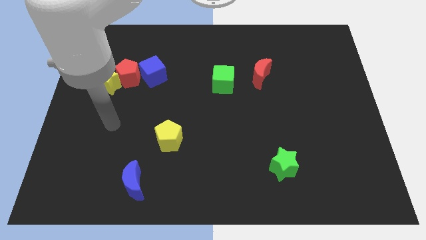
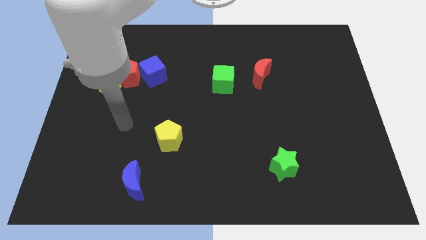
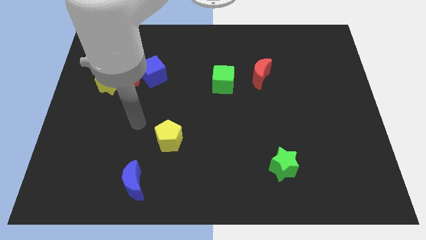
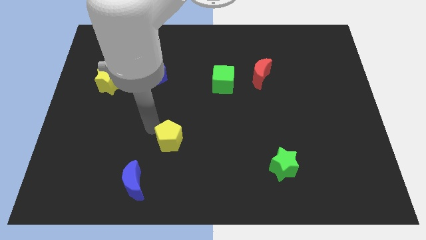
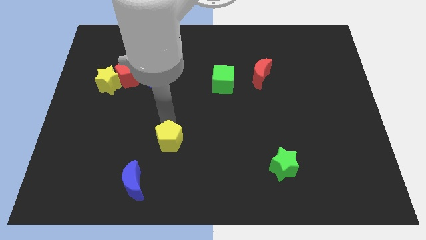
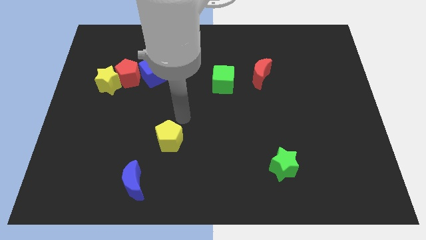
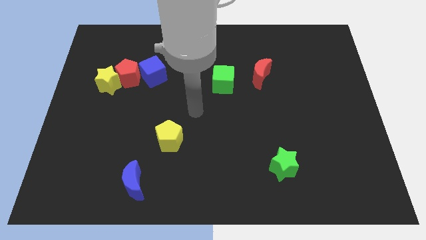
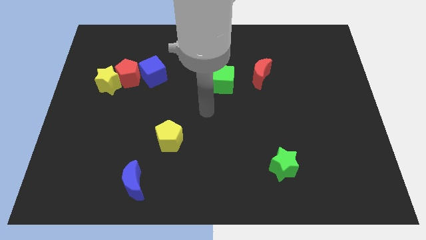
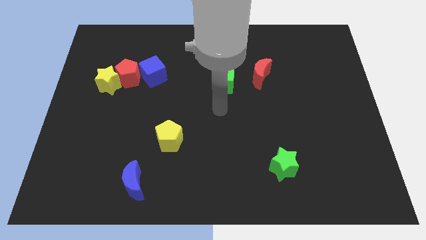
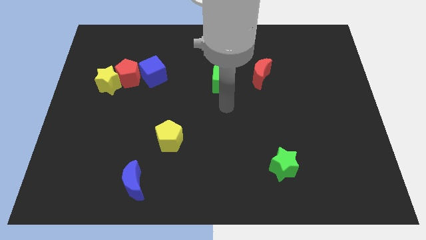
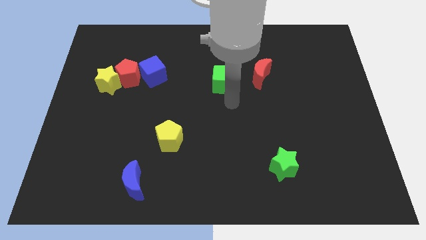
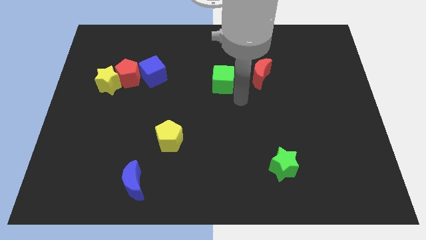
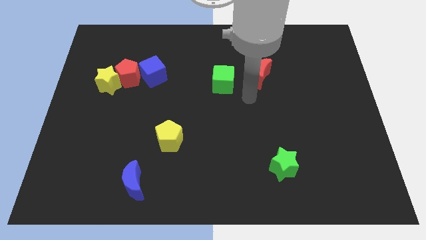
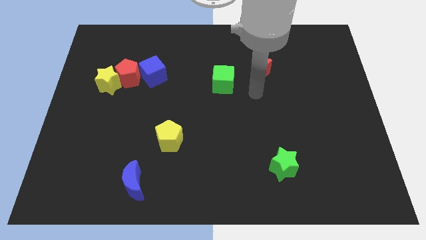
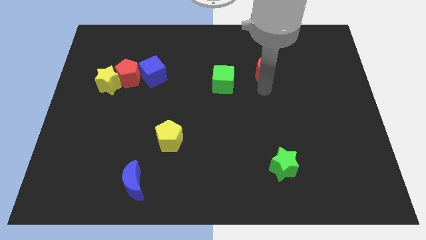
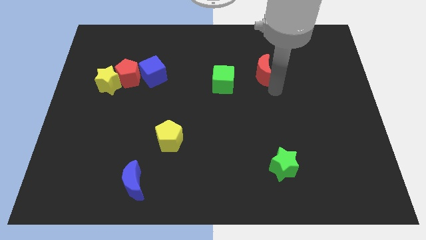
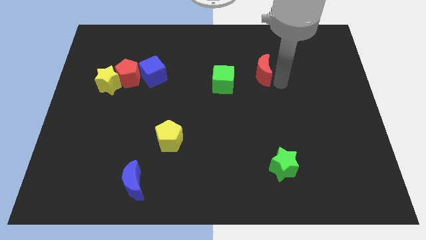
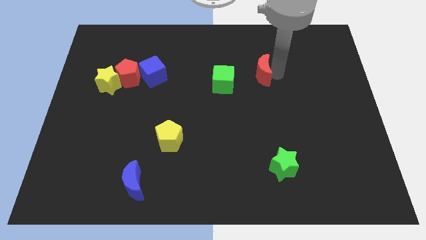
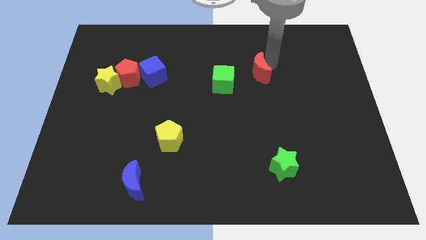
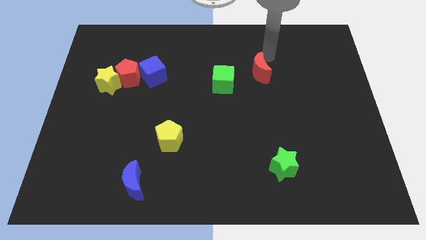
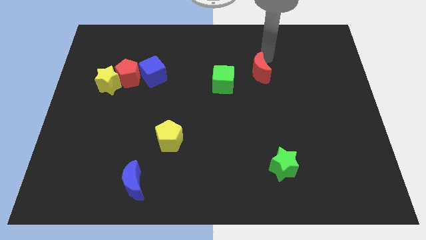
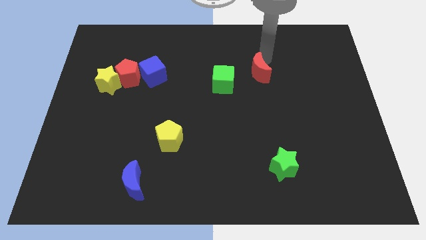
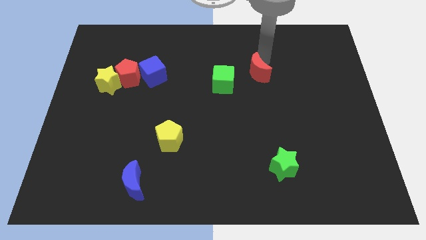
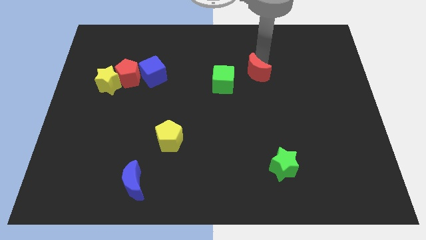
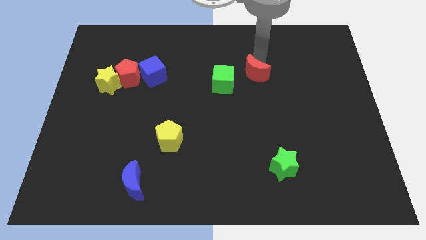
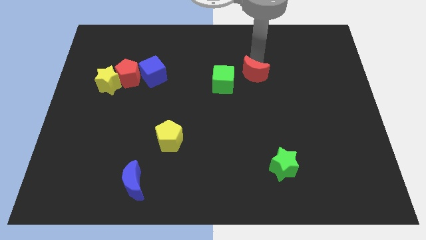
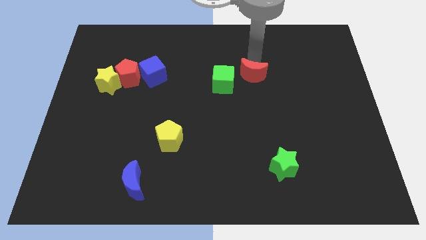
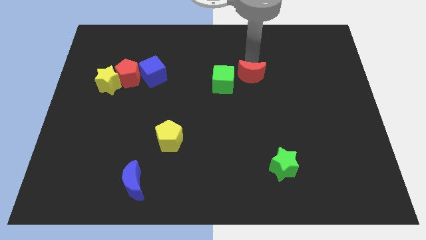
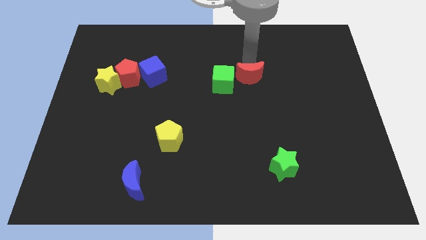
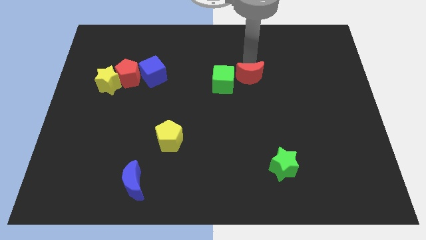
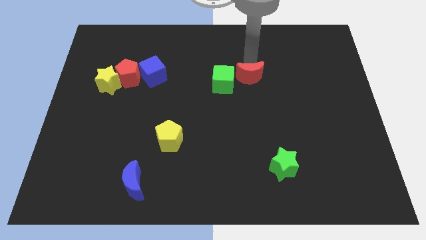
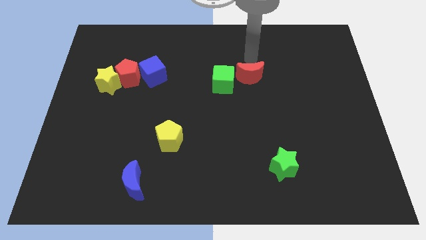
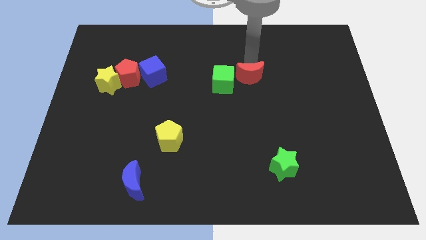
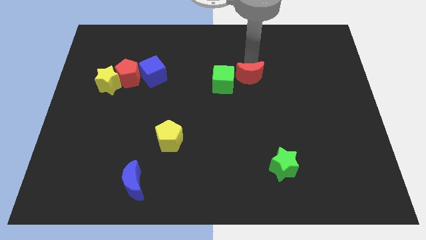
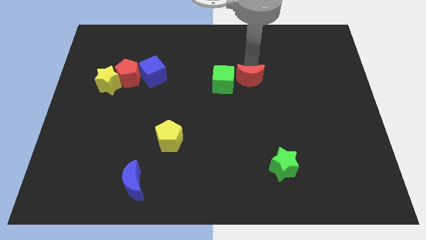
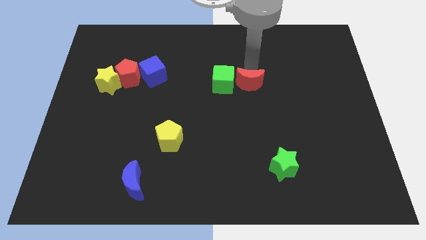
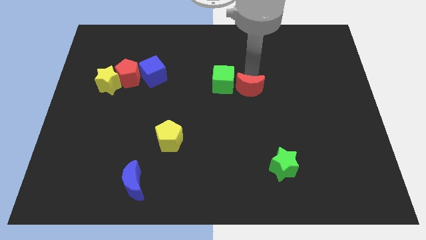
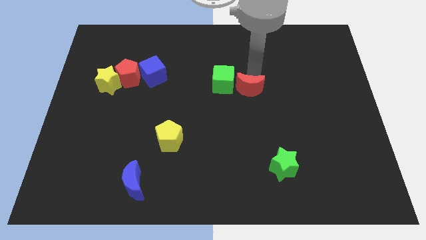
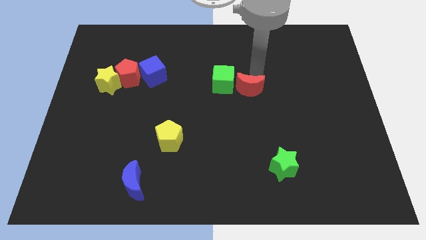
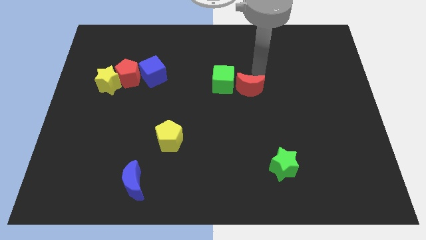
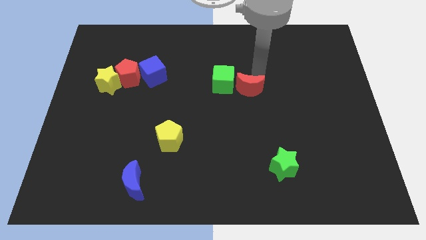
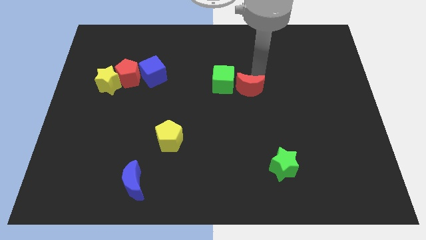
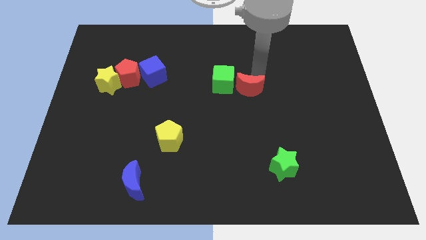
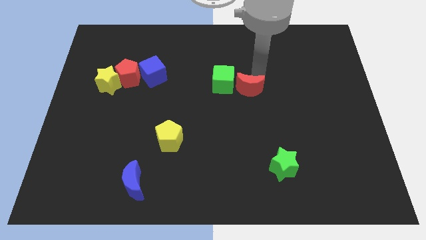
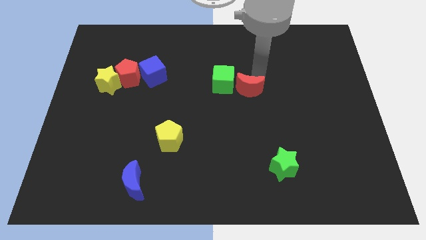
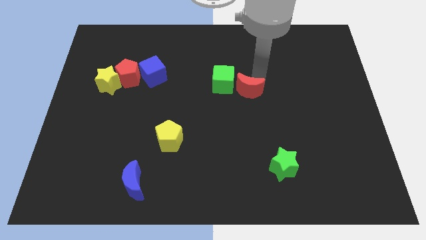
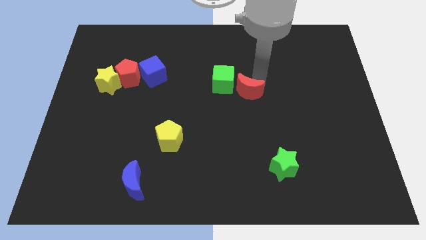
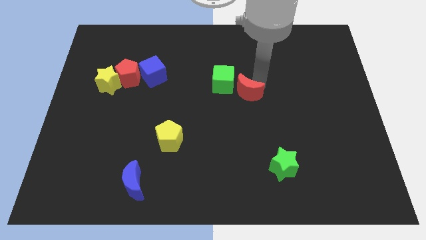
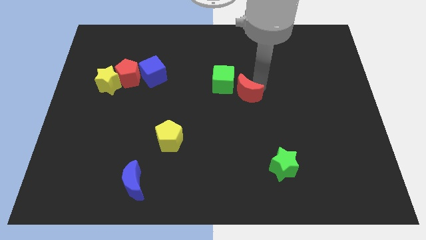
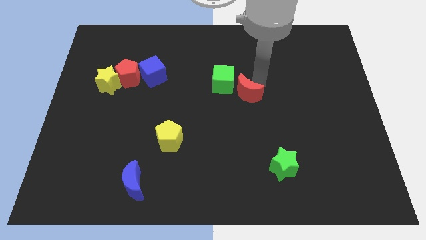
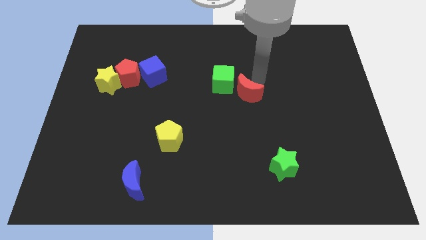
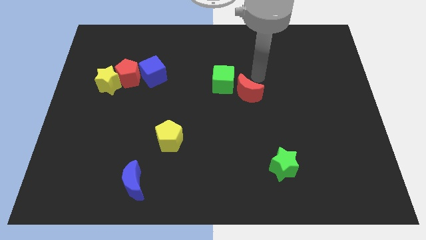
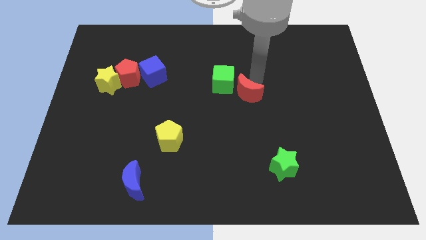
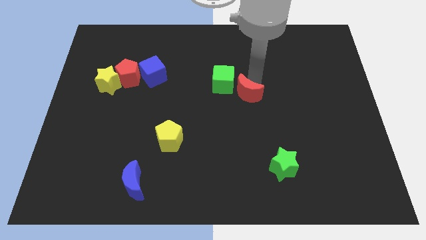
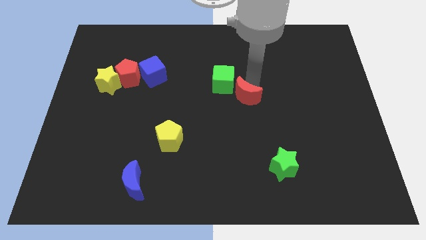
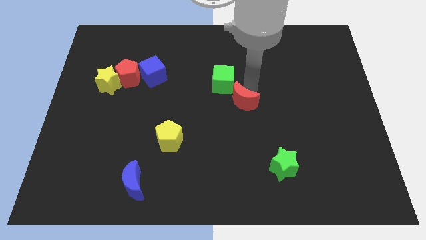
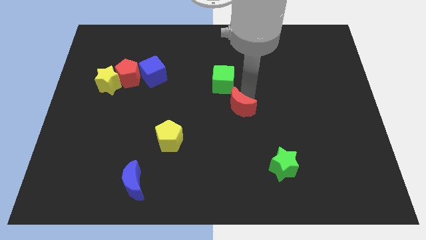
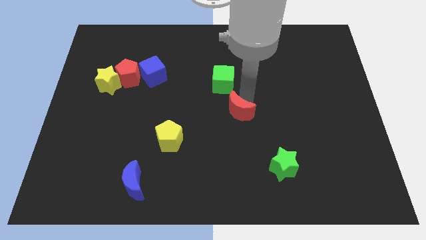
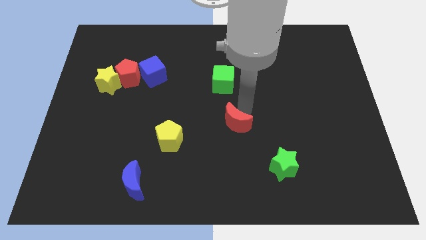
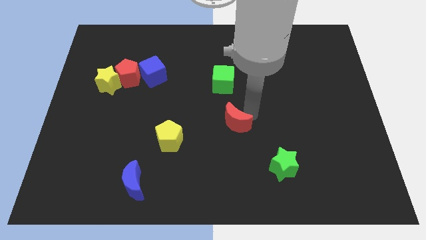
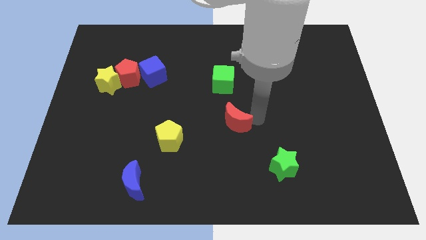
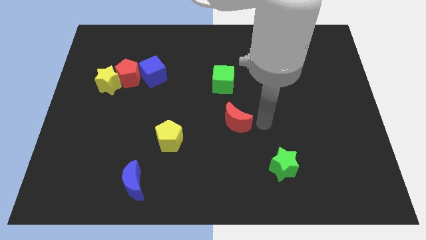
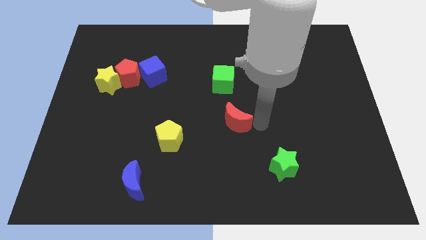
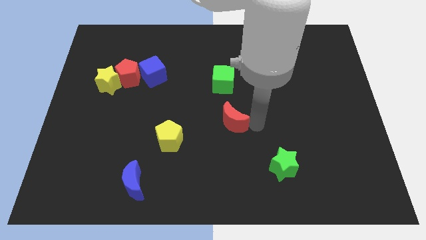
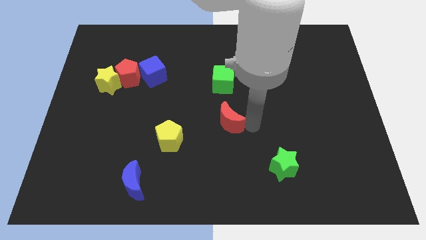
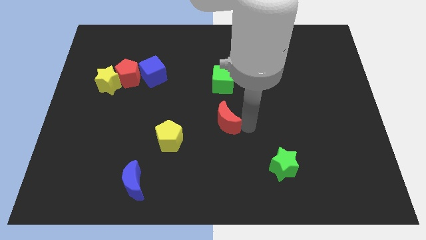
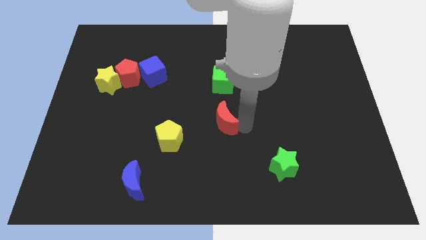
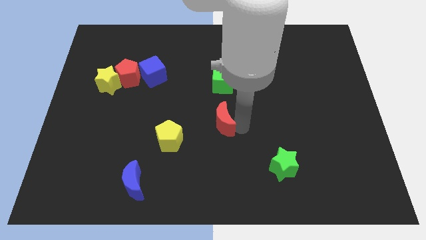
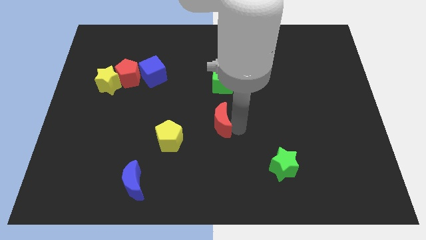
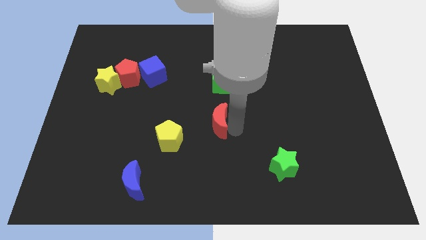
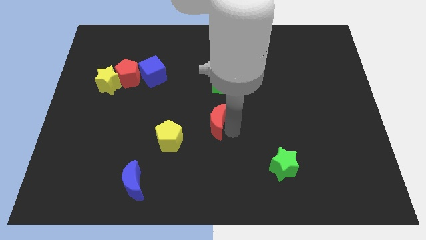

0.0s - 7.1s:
push the red moon to the top right side of the yellow pentagon
